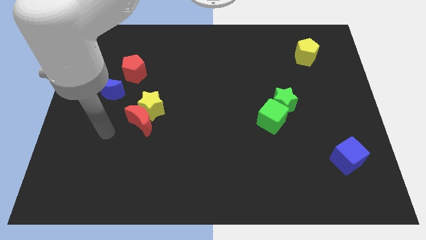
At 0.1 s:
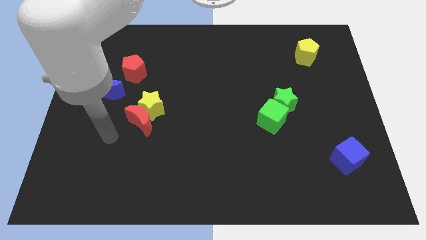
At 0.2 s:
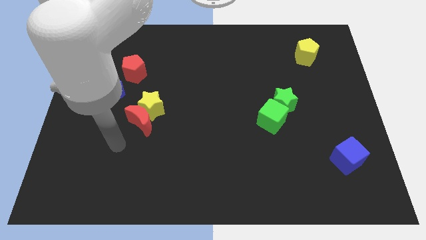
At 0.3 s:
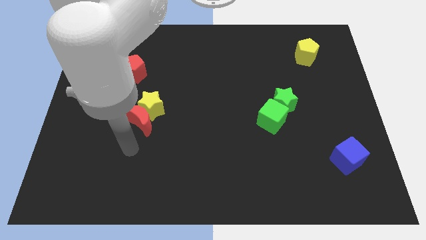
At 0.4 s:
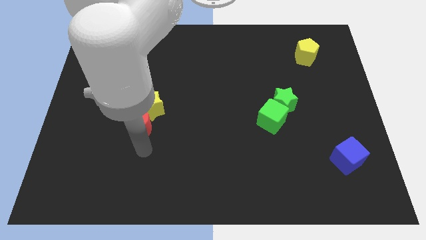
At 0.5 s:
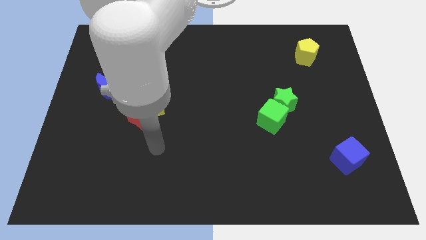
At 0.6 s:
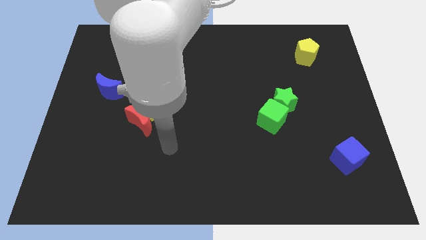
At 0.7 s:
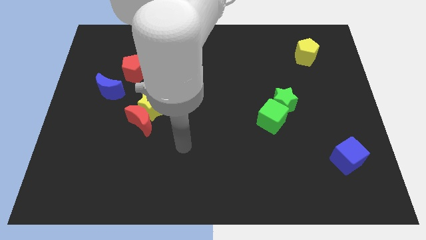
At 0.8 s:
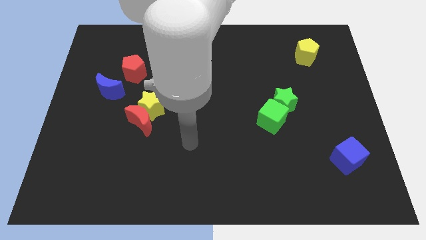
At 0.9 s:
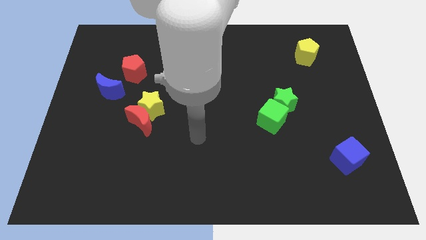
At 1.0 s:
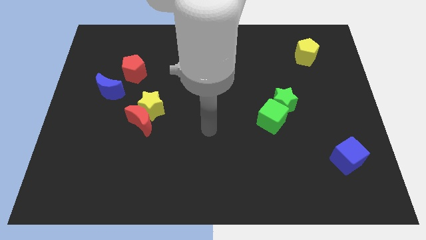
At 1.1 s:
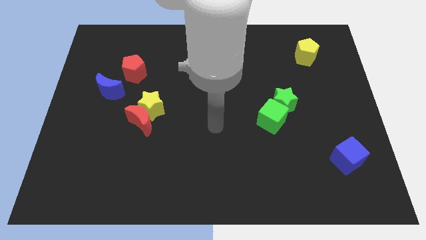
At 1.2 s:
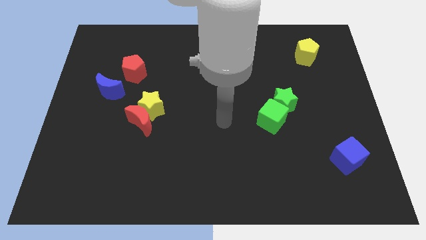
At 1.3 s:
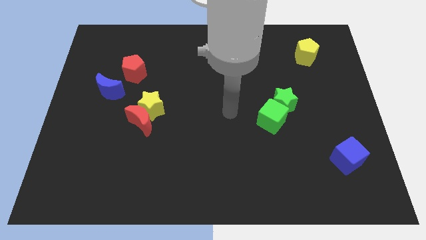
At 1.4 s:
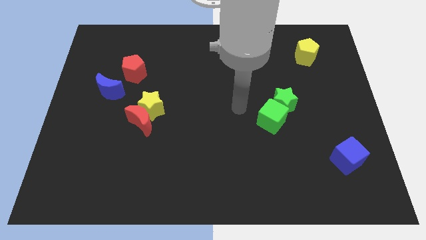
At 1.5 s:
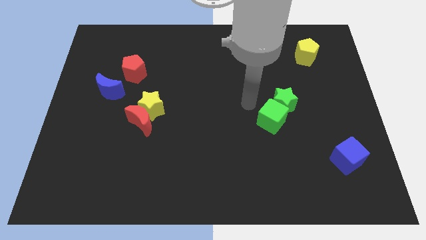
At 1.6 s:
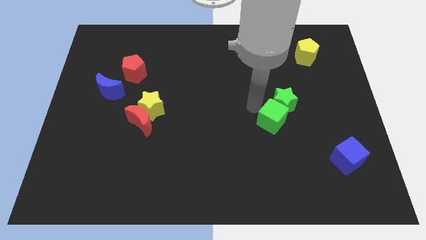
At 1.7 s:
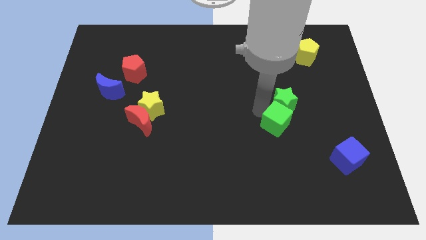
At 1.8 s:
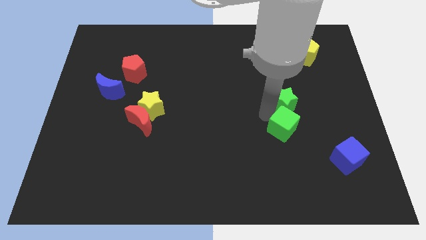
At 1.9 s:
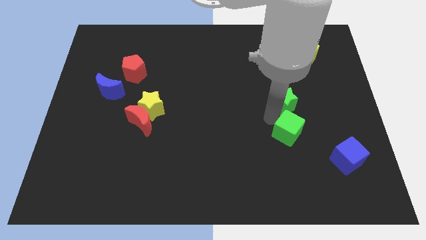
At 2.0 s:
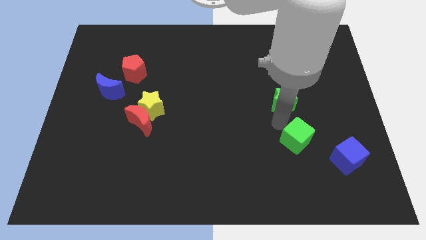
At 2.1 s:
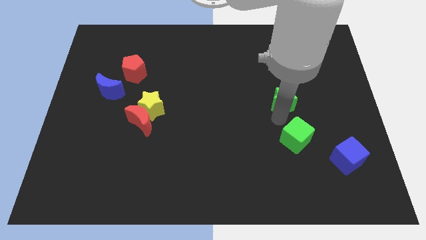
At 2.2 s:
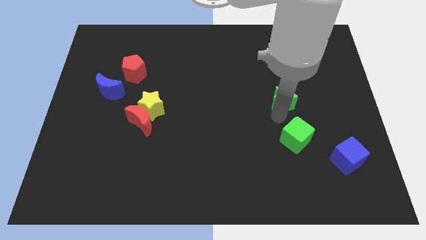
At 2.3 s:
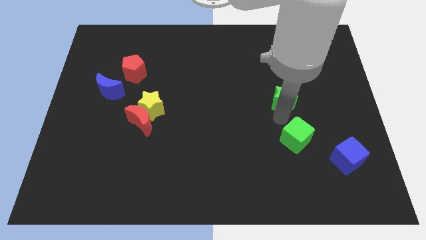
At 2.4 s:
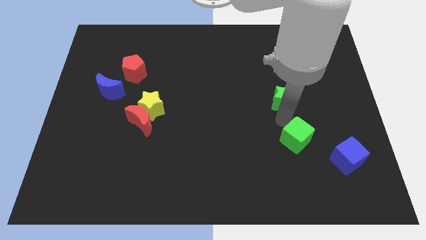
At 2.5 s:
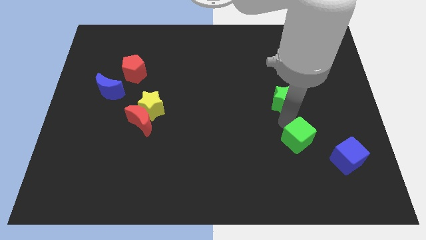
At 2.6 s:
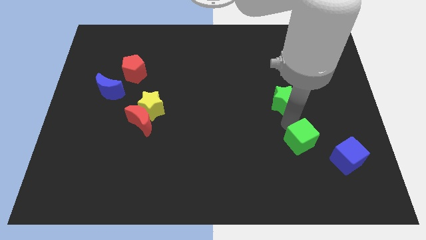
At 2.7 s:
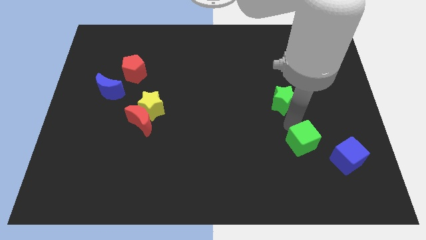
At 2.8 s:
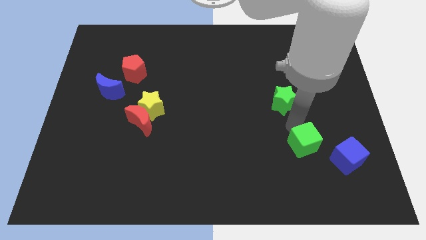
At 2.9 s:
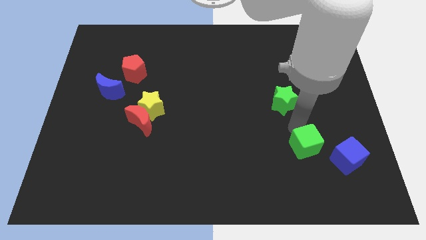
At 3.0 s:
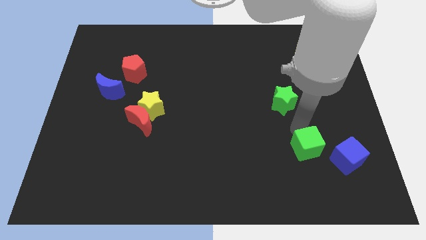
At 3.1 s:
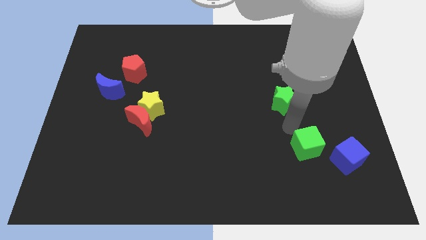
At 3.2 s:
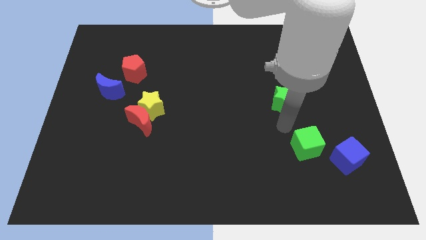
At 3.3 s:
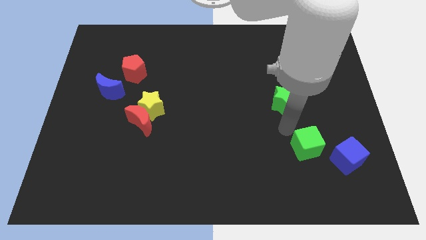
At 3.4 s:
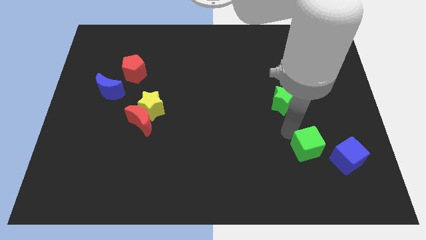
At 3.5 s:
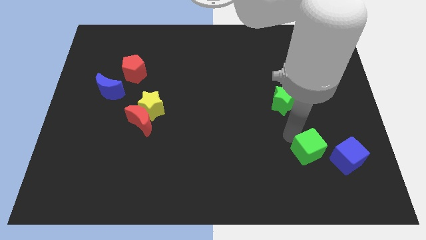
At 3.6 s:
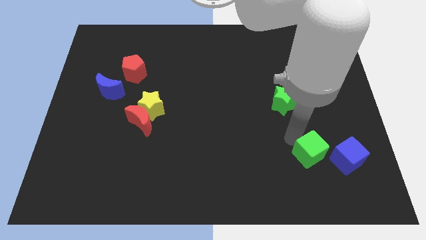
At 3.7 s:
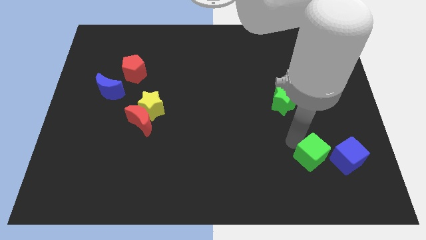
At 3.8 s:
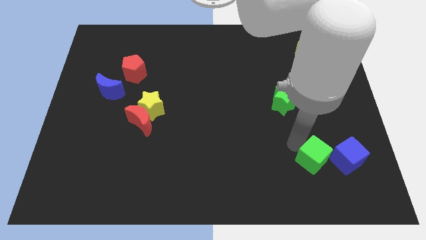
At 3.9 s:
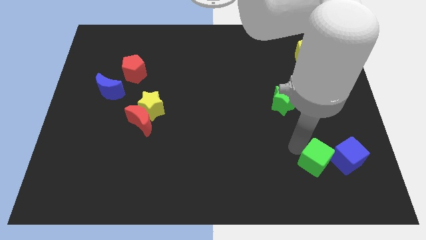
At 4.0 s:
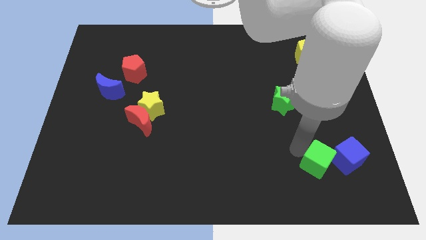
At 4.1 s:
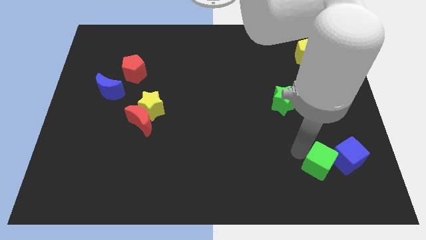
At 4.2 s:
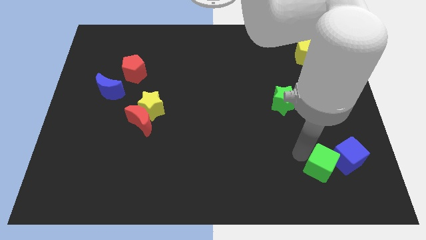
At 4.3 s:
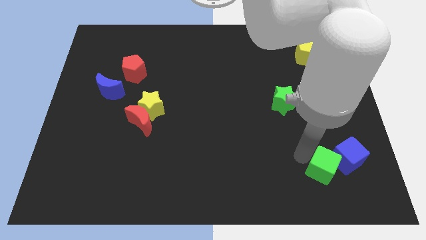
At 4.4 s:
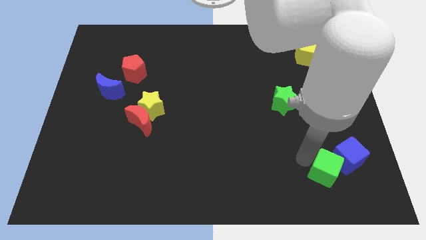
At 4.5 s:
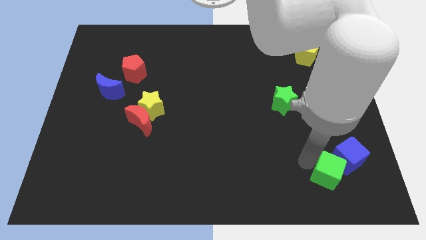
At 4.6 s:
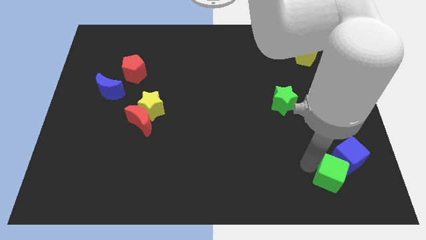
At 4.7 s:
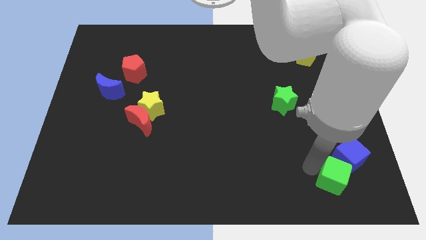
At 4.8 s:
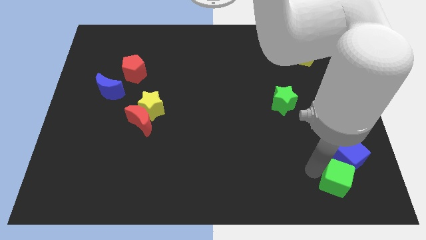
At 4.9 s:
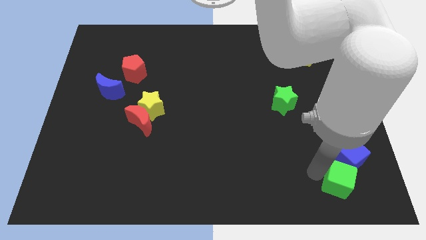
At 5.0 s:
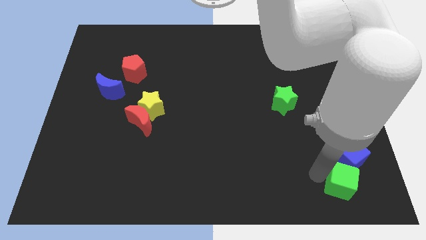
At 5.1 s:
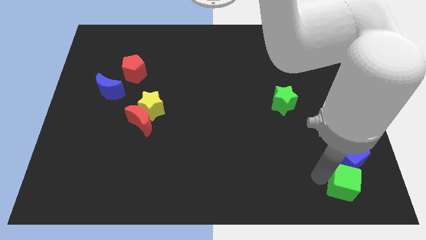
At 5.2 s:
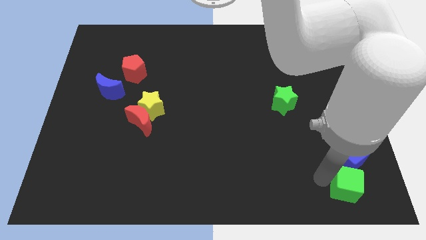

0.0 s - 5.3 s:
slide the green cube to the bottom right

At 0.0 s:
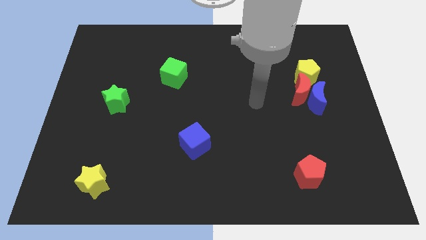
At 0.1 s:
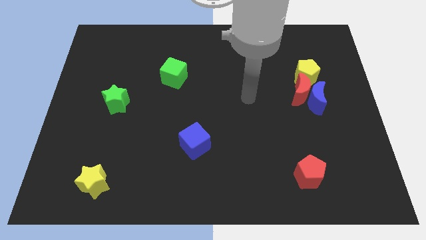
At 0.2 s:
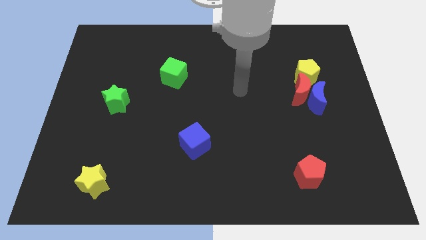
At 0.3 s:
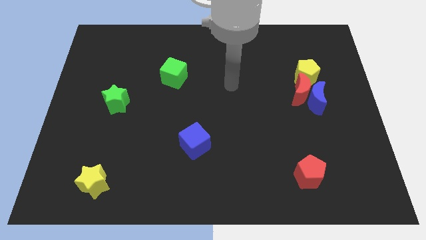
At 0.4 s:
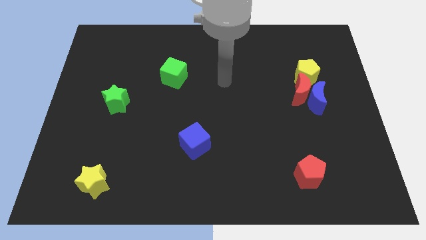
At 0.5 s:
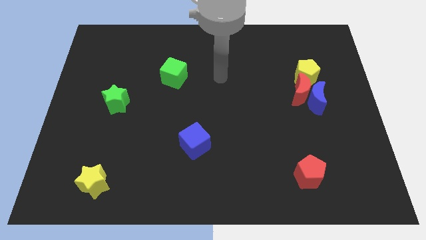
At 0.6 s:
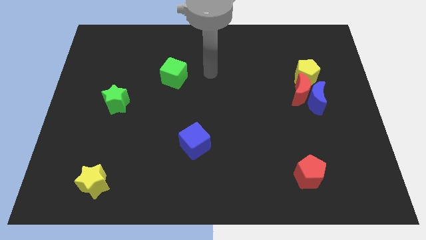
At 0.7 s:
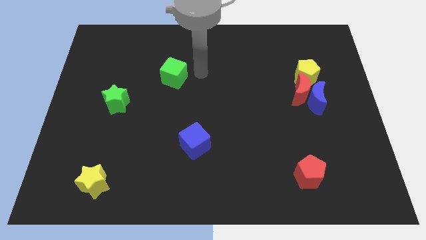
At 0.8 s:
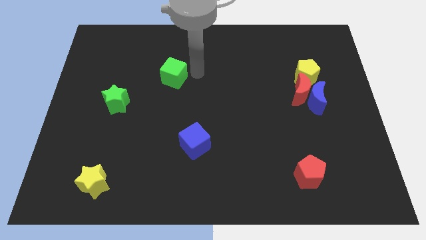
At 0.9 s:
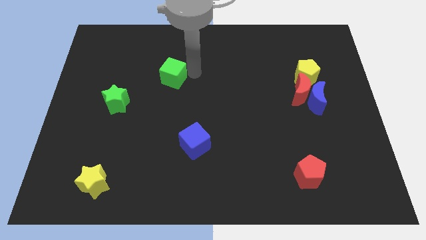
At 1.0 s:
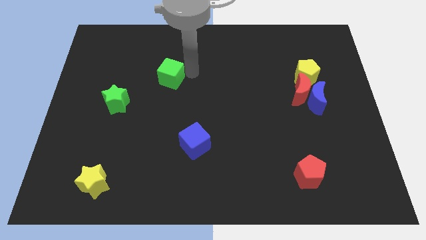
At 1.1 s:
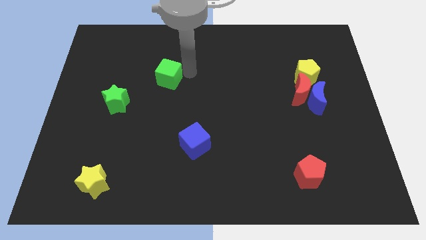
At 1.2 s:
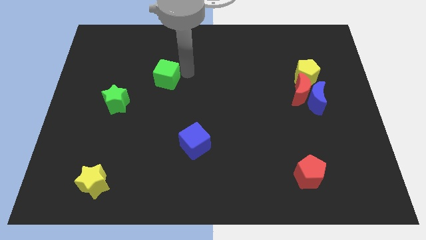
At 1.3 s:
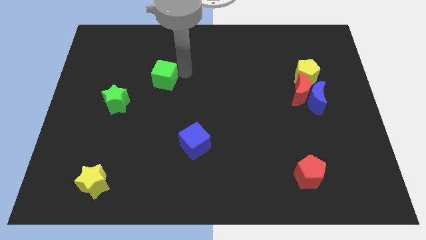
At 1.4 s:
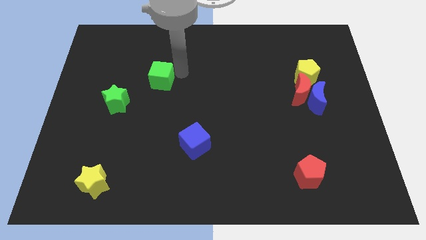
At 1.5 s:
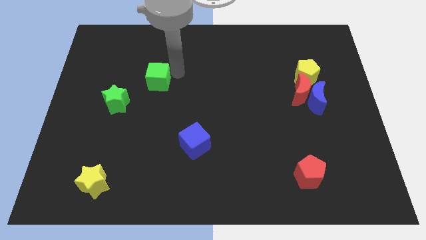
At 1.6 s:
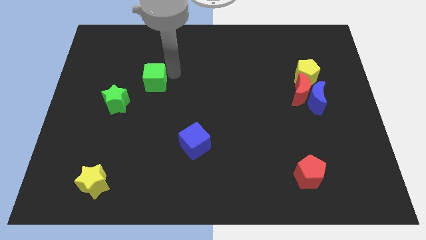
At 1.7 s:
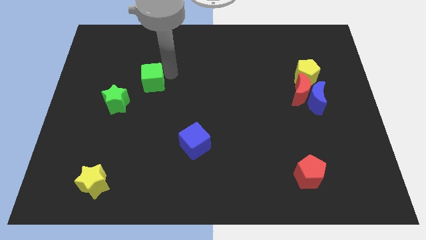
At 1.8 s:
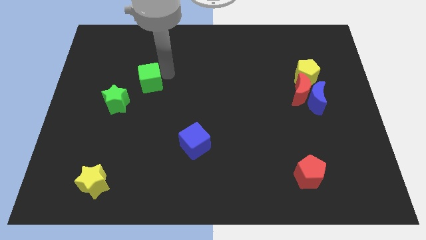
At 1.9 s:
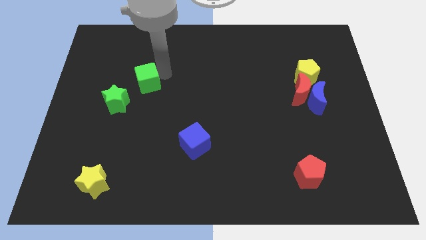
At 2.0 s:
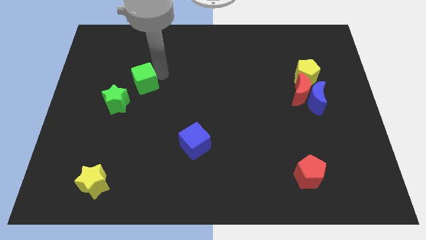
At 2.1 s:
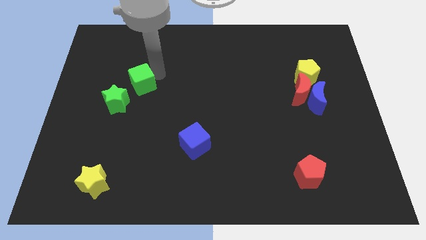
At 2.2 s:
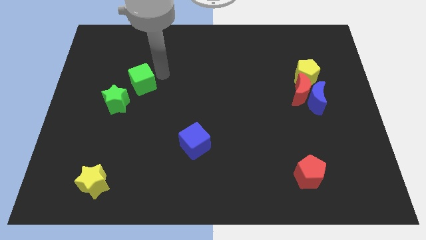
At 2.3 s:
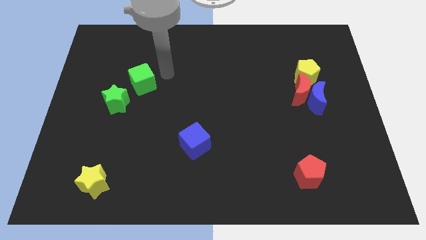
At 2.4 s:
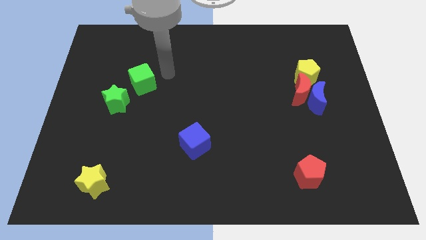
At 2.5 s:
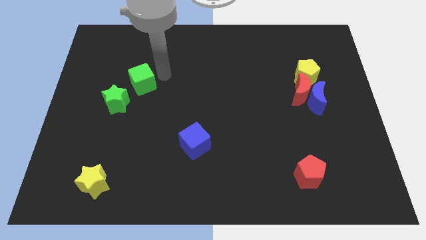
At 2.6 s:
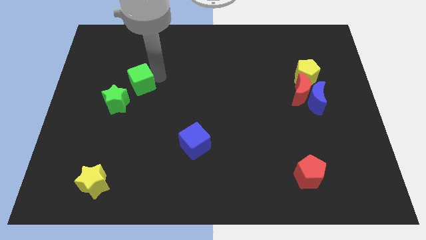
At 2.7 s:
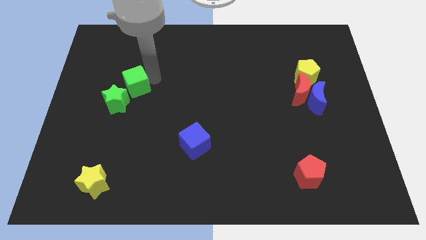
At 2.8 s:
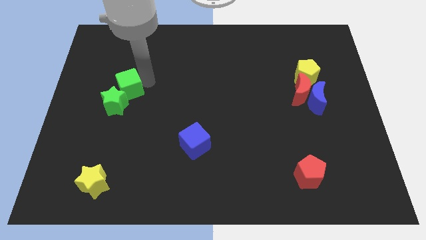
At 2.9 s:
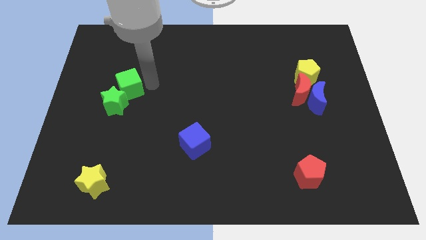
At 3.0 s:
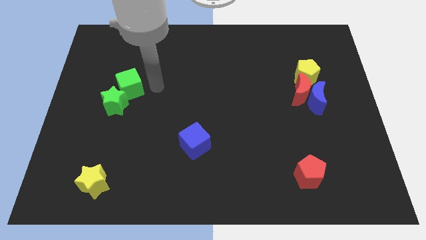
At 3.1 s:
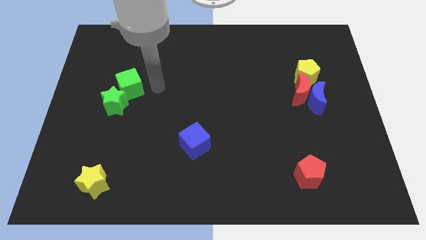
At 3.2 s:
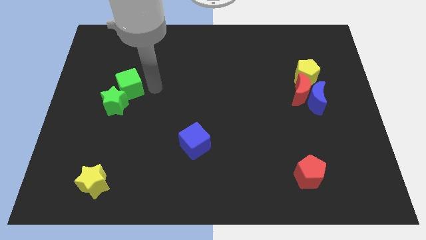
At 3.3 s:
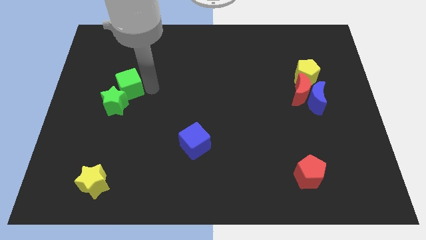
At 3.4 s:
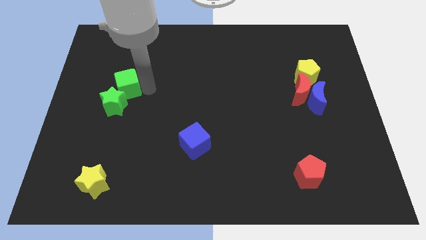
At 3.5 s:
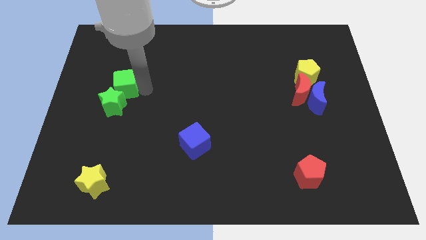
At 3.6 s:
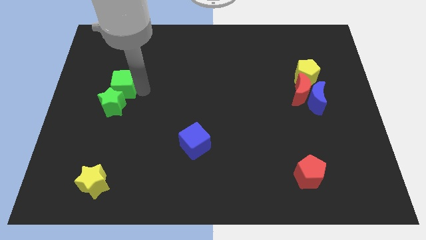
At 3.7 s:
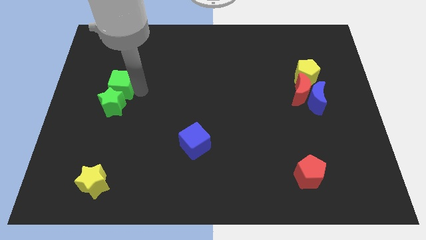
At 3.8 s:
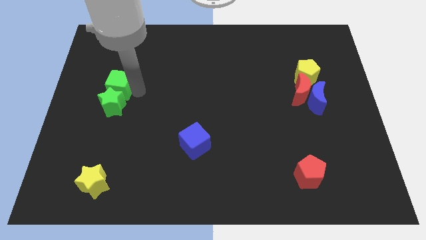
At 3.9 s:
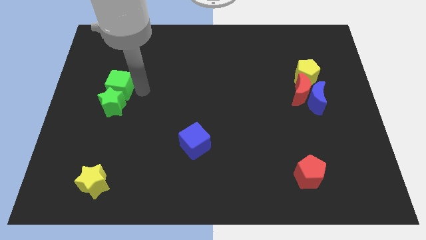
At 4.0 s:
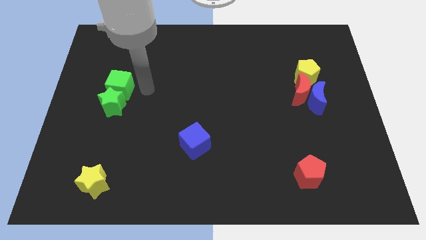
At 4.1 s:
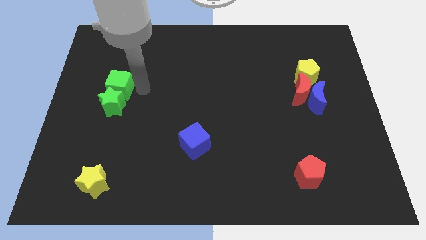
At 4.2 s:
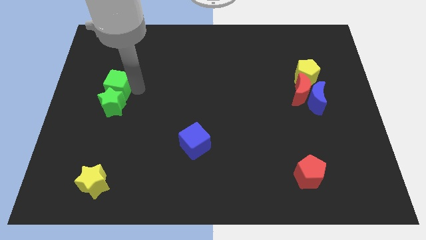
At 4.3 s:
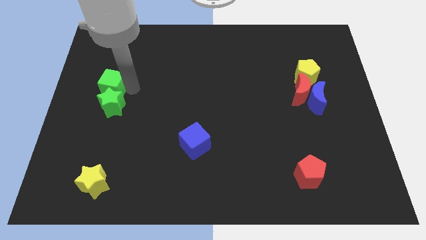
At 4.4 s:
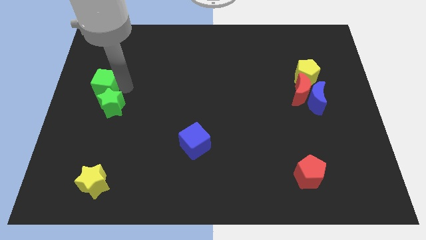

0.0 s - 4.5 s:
push the green cube to the left side of the board
